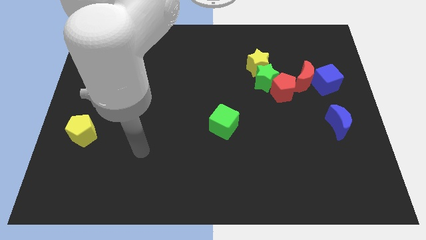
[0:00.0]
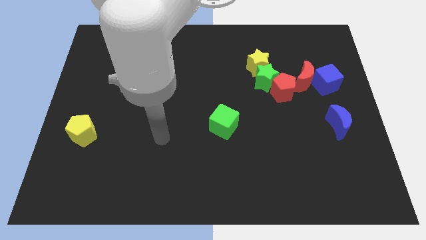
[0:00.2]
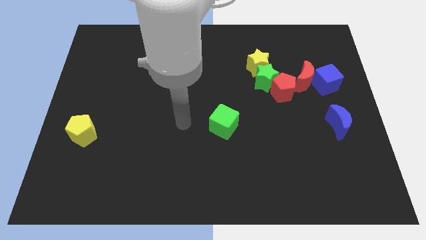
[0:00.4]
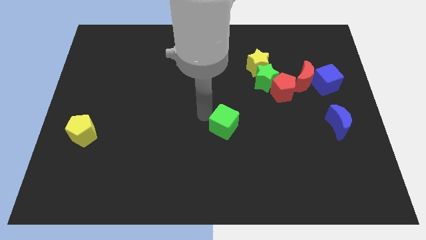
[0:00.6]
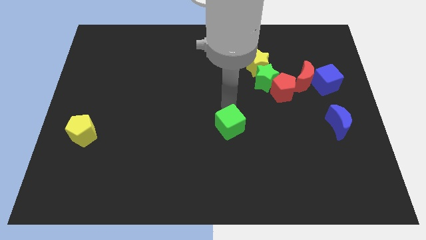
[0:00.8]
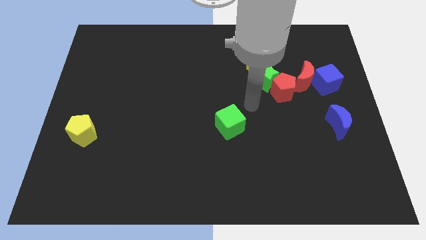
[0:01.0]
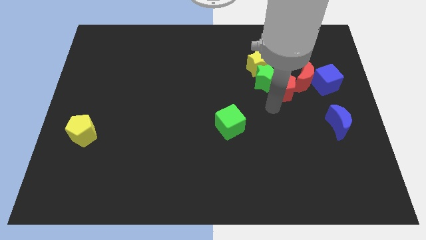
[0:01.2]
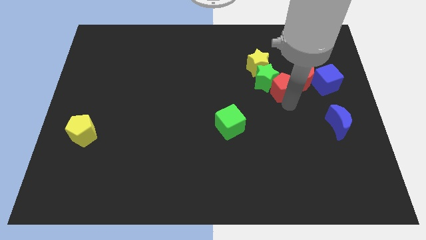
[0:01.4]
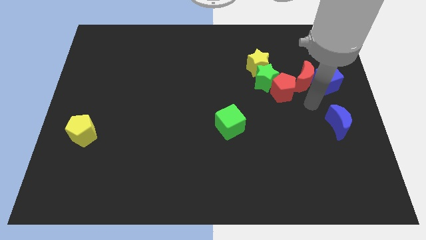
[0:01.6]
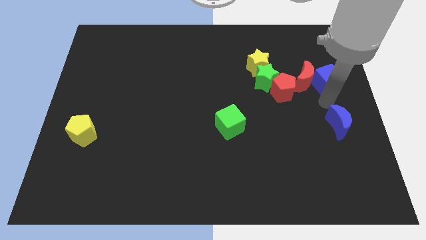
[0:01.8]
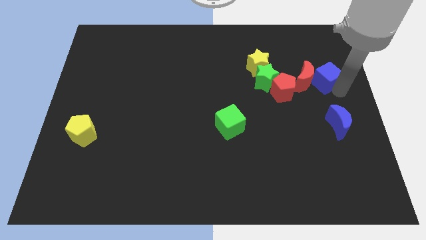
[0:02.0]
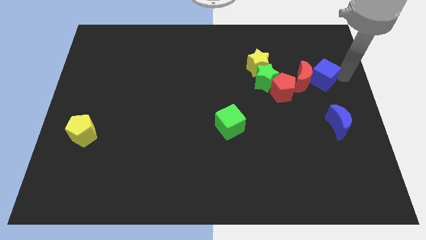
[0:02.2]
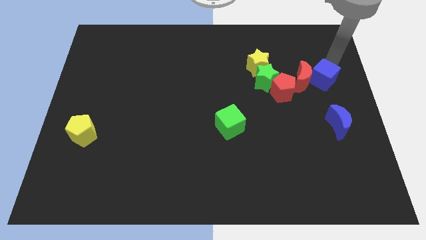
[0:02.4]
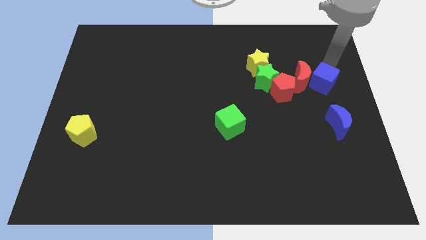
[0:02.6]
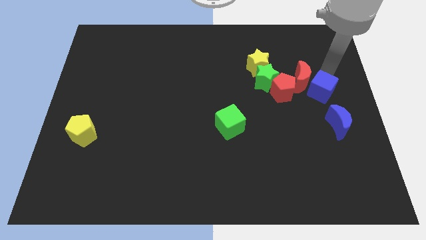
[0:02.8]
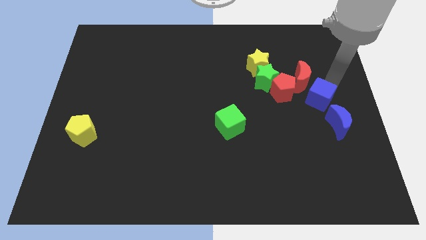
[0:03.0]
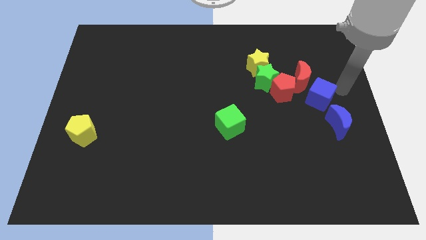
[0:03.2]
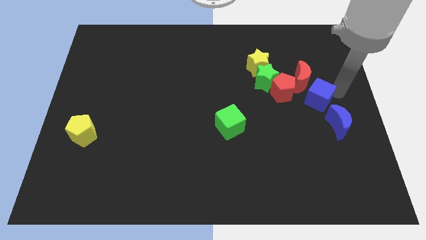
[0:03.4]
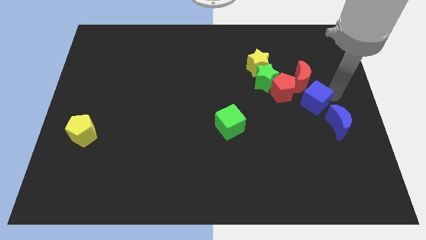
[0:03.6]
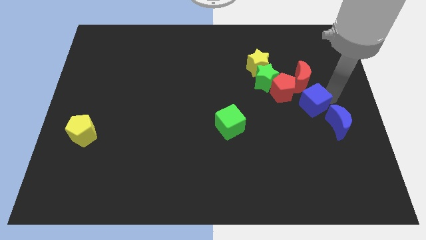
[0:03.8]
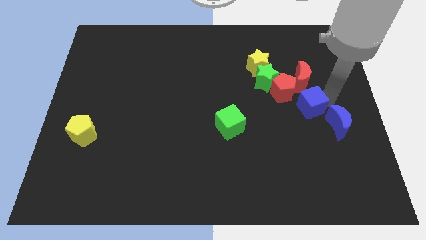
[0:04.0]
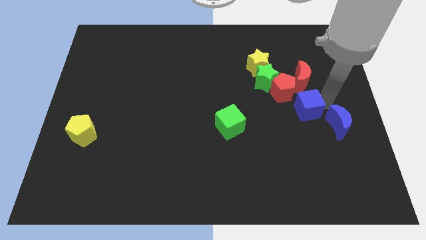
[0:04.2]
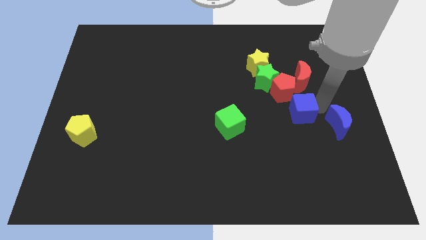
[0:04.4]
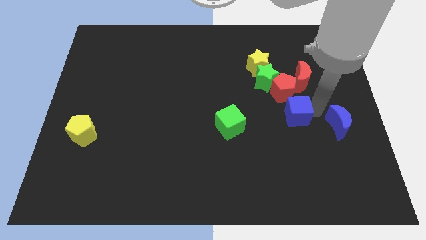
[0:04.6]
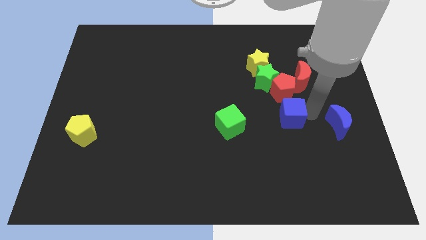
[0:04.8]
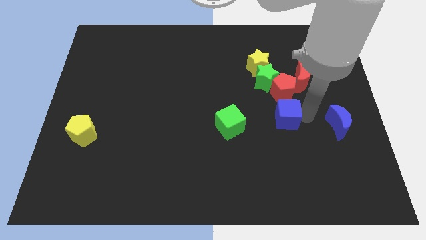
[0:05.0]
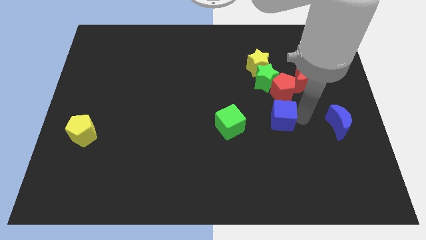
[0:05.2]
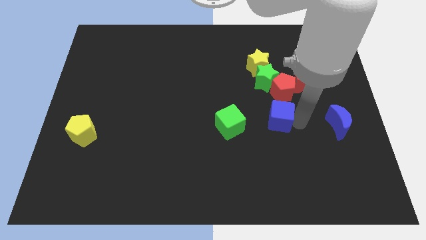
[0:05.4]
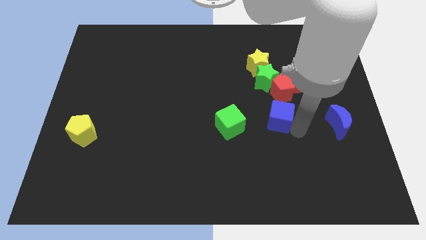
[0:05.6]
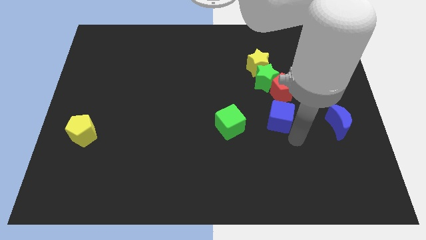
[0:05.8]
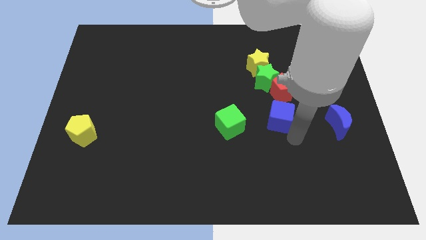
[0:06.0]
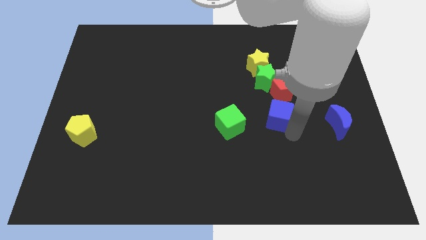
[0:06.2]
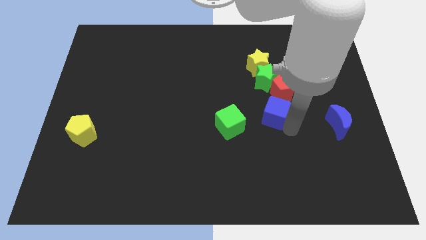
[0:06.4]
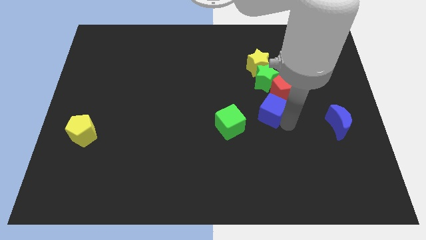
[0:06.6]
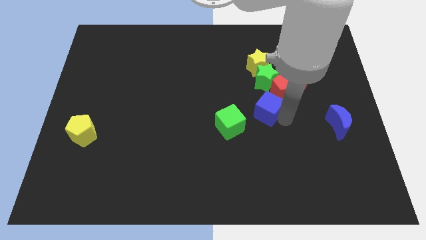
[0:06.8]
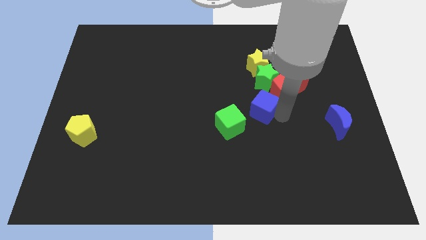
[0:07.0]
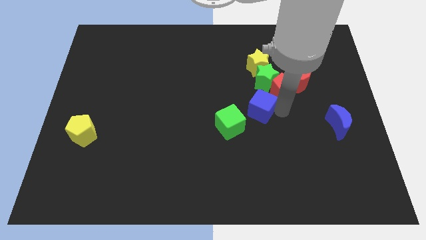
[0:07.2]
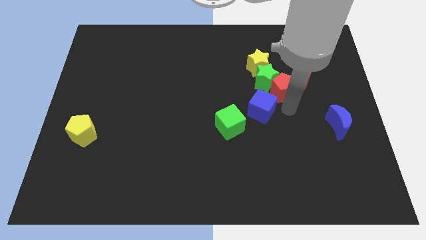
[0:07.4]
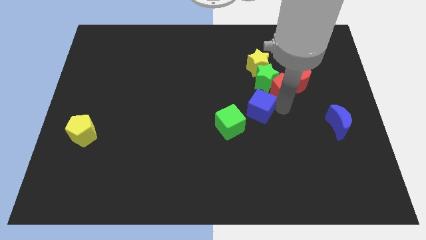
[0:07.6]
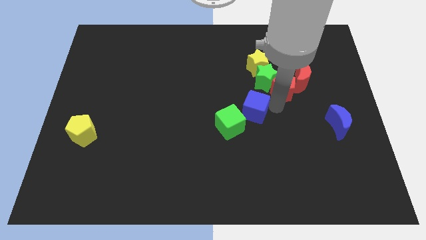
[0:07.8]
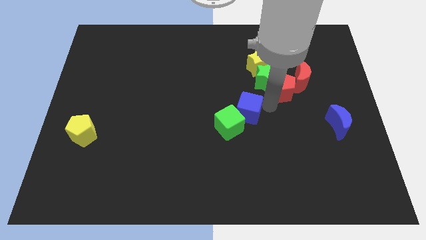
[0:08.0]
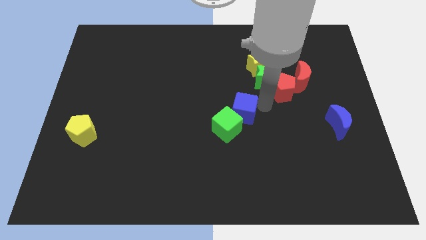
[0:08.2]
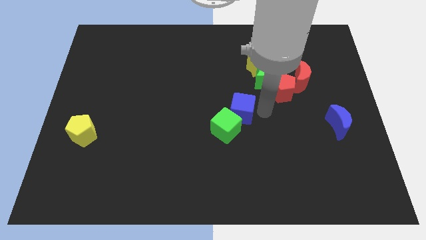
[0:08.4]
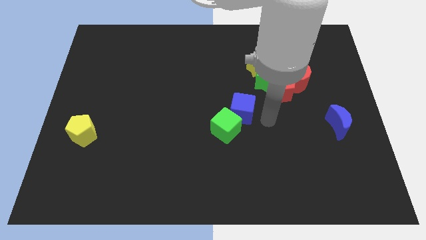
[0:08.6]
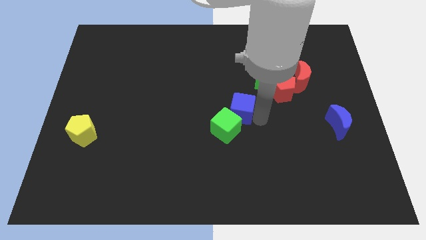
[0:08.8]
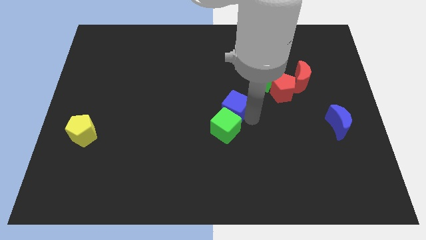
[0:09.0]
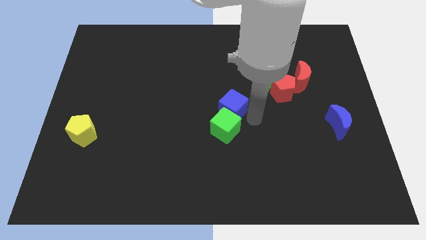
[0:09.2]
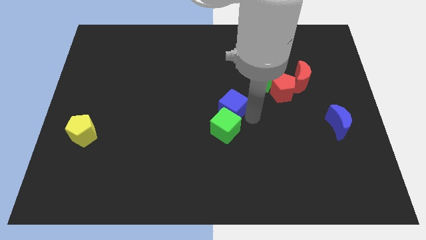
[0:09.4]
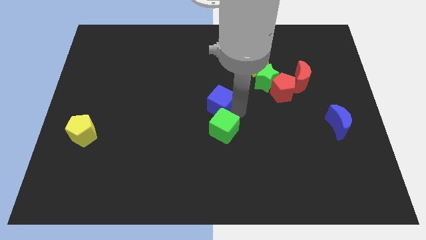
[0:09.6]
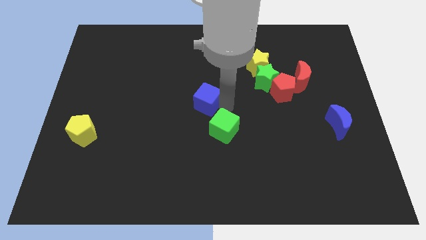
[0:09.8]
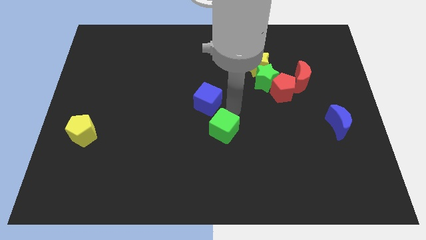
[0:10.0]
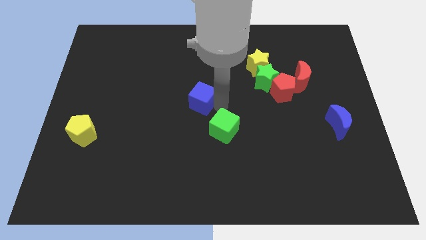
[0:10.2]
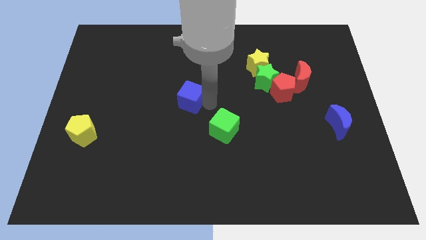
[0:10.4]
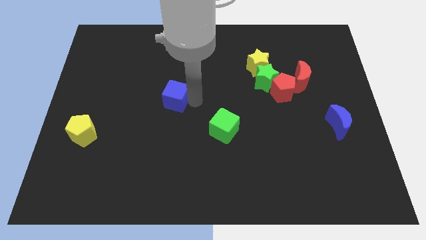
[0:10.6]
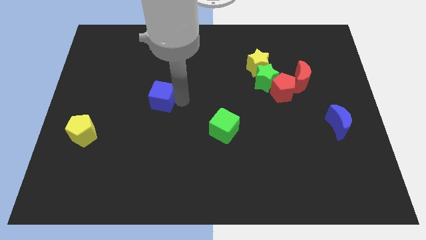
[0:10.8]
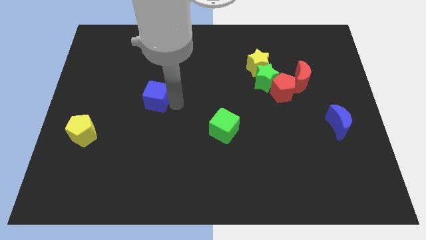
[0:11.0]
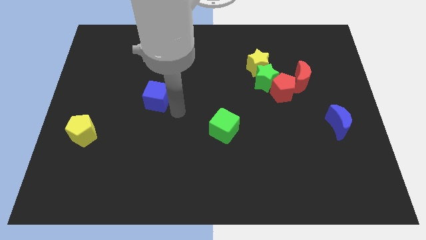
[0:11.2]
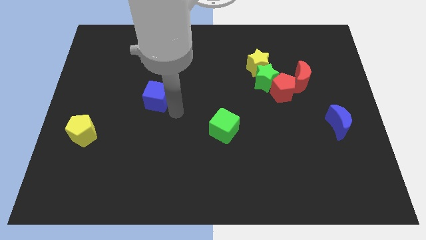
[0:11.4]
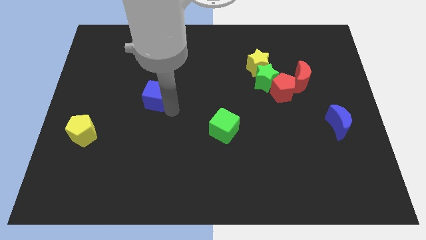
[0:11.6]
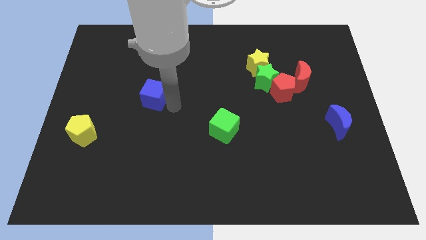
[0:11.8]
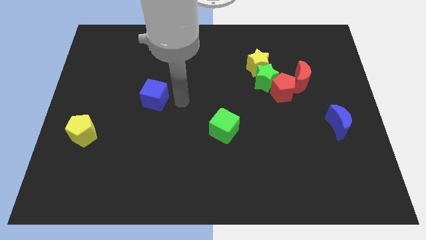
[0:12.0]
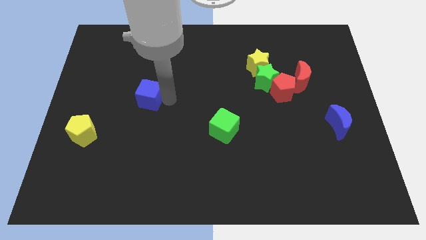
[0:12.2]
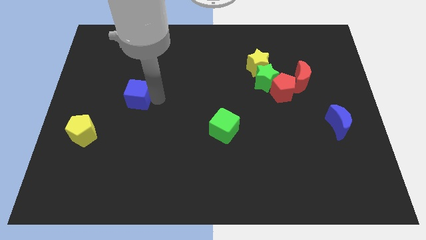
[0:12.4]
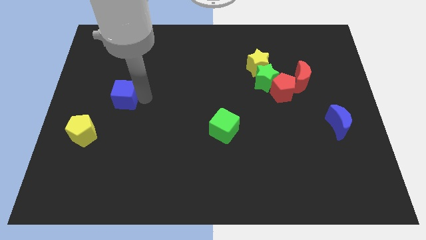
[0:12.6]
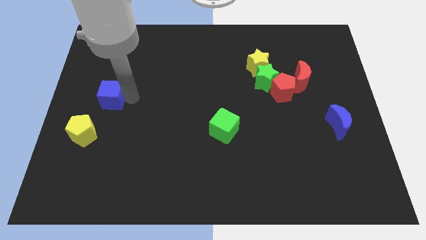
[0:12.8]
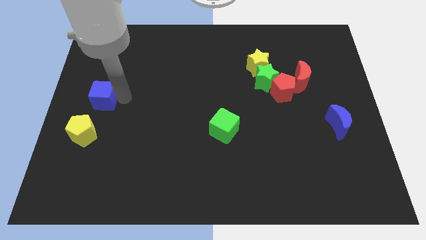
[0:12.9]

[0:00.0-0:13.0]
push the blue cube to the center left

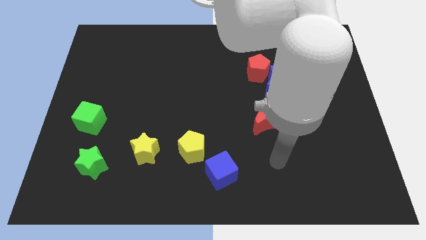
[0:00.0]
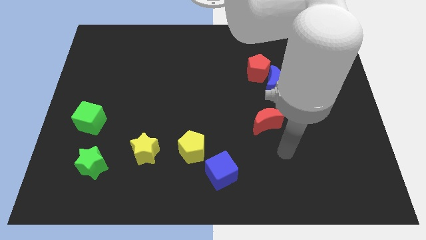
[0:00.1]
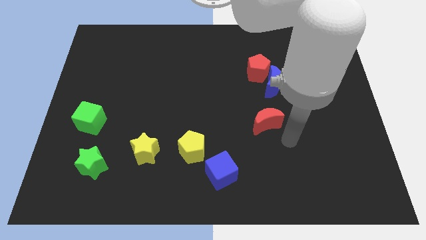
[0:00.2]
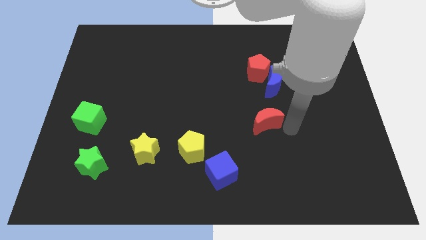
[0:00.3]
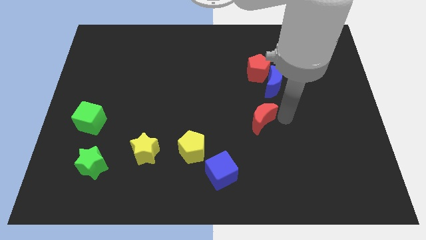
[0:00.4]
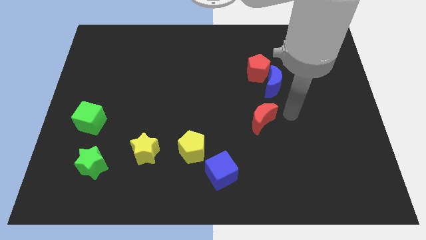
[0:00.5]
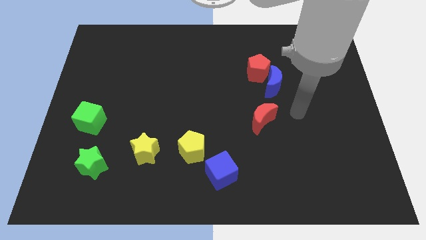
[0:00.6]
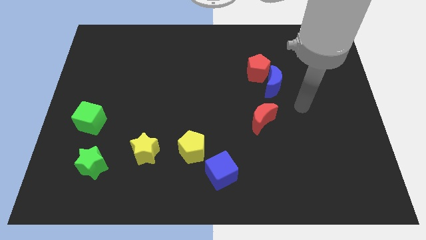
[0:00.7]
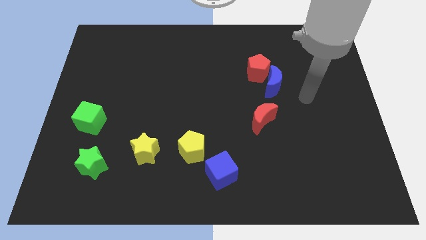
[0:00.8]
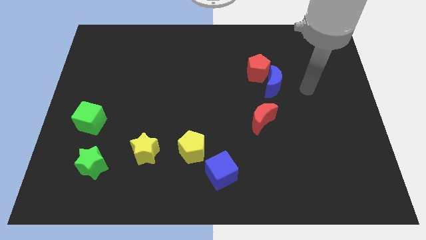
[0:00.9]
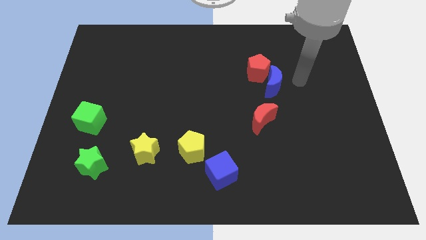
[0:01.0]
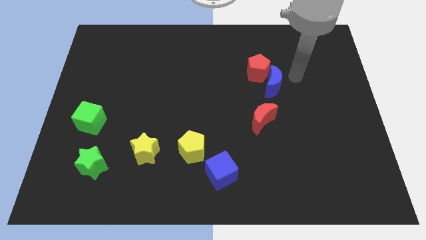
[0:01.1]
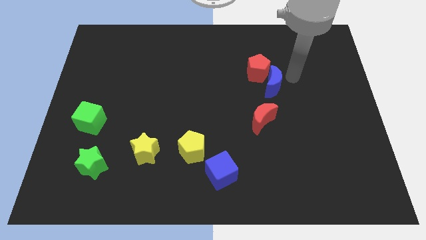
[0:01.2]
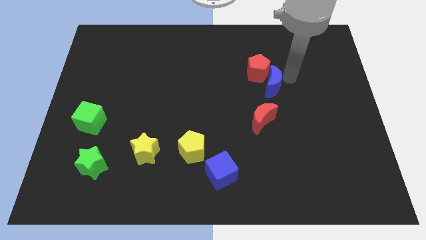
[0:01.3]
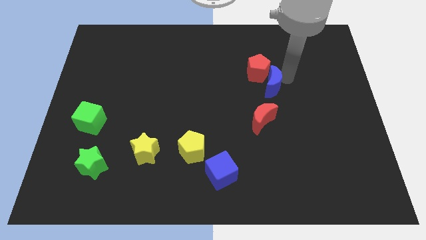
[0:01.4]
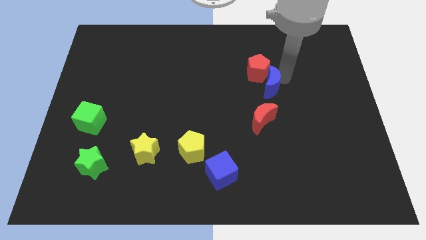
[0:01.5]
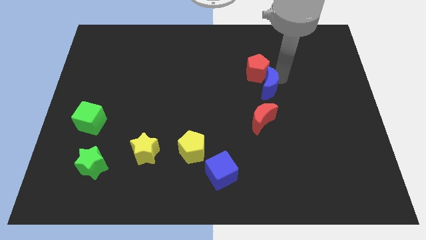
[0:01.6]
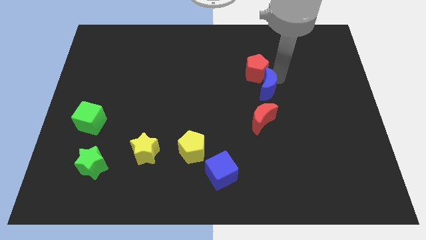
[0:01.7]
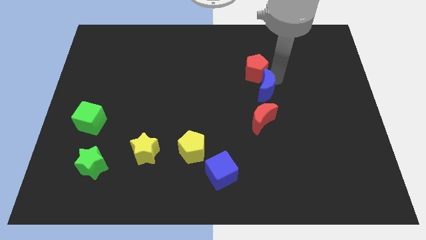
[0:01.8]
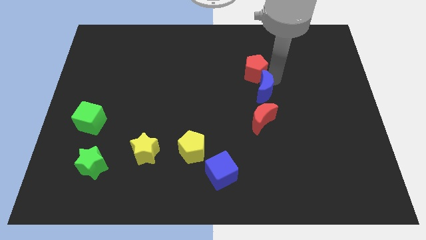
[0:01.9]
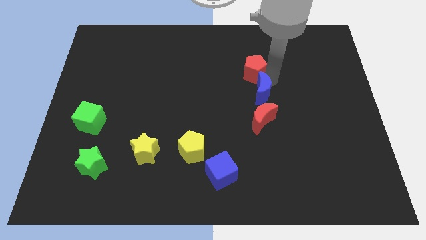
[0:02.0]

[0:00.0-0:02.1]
push the blue moon to the middle of the board
